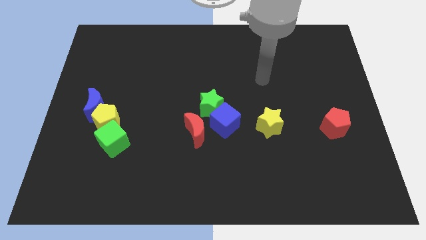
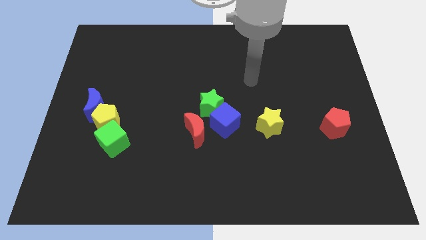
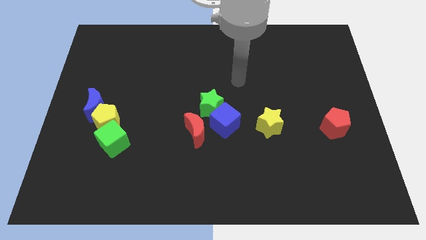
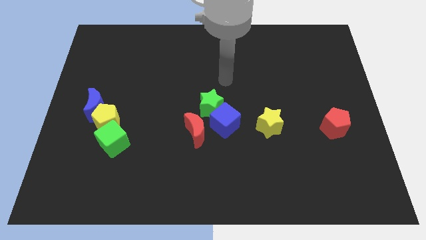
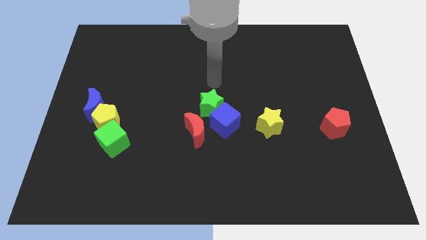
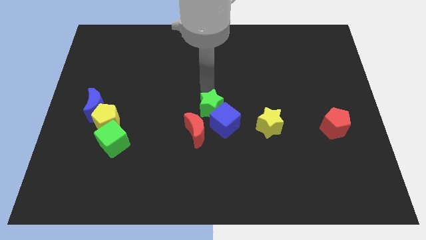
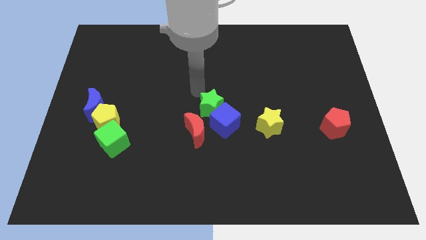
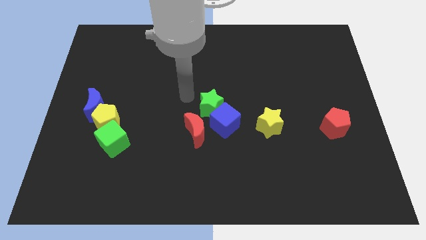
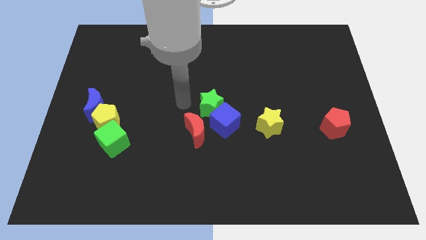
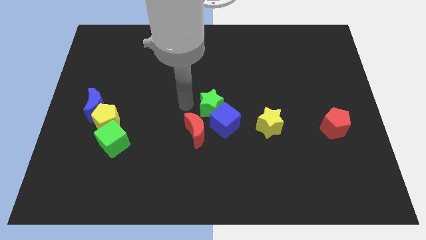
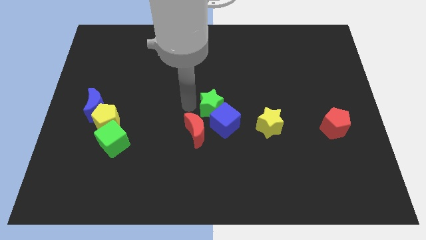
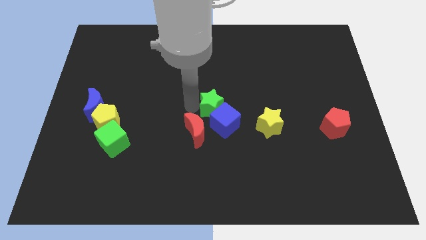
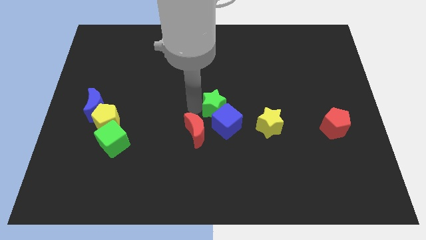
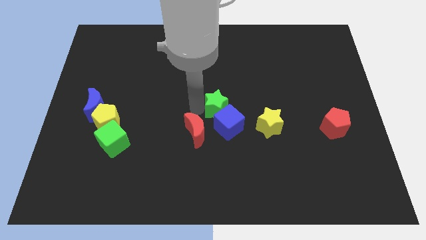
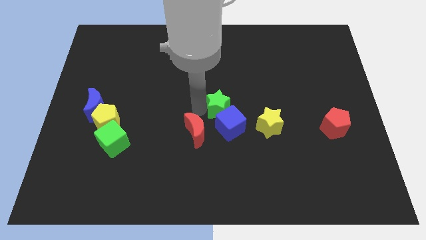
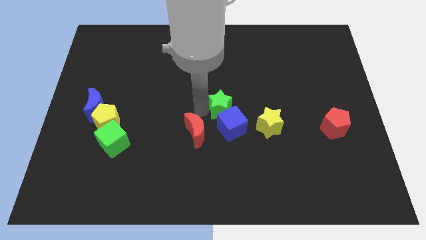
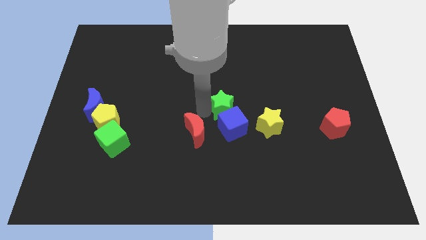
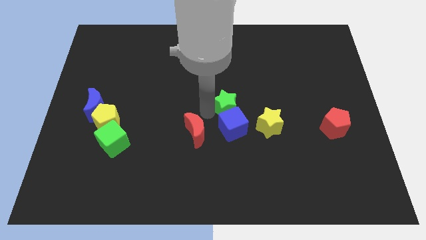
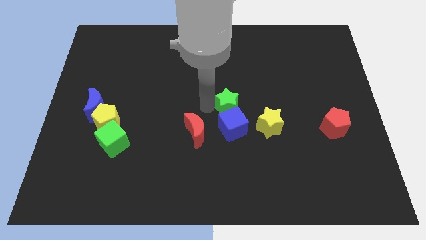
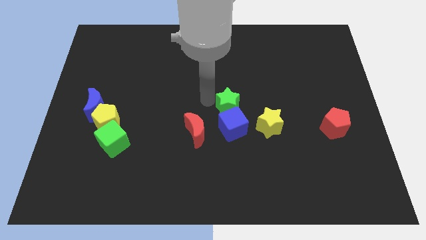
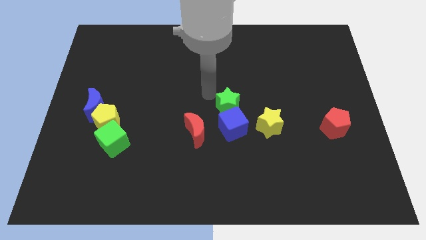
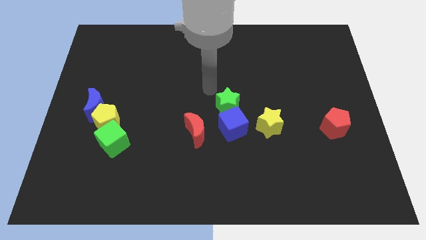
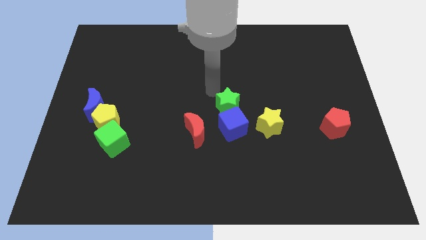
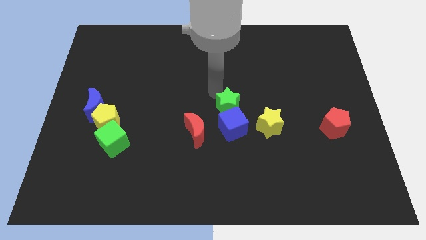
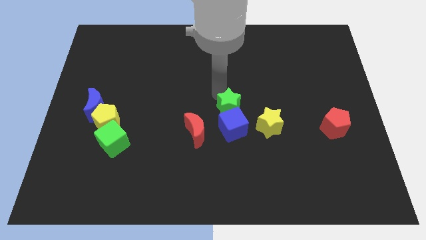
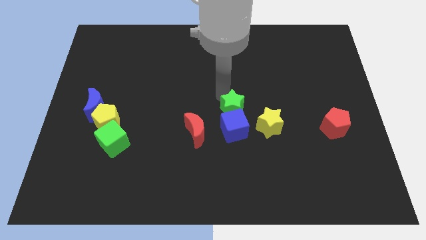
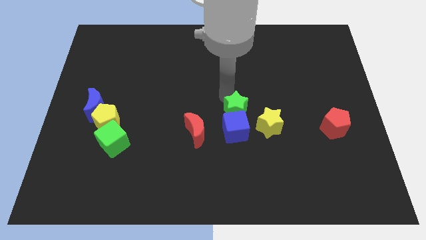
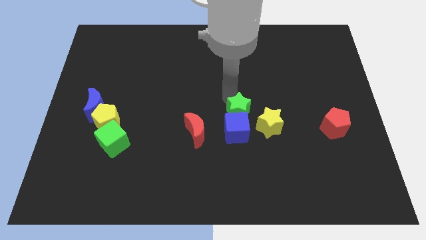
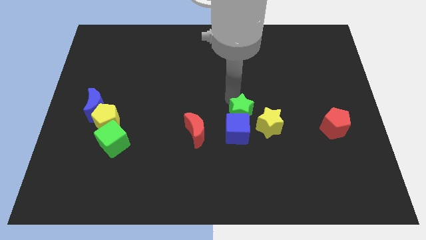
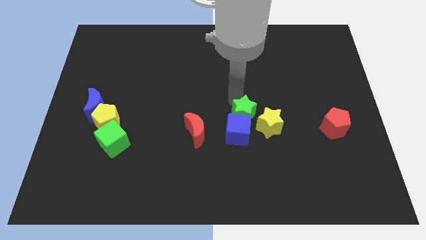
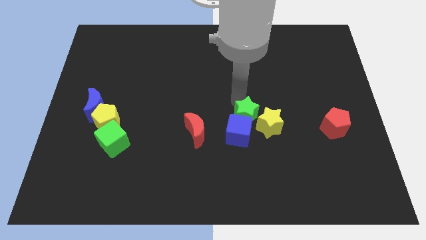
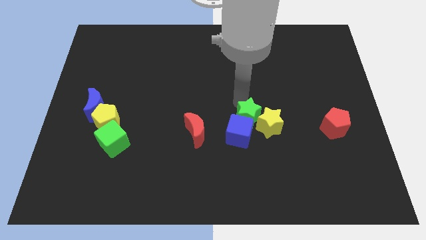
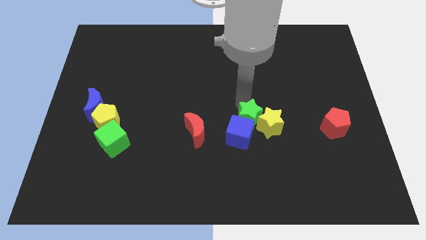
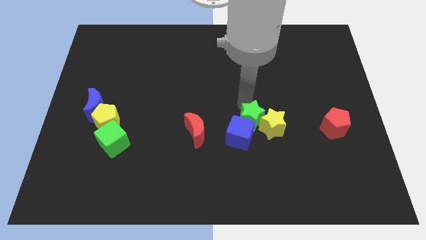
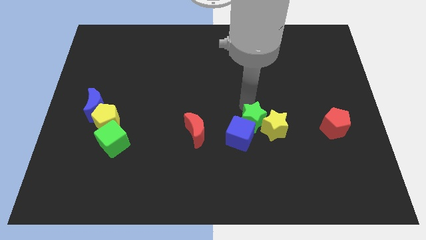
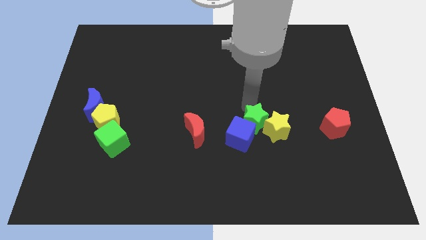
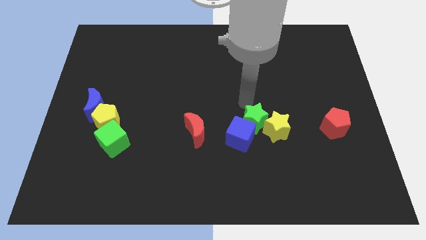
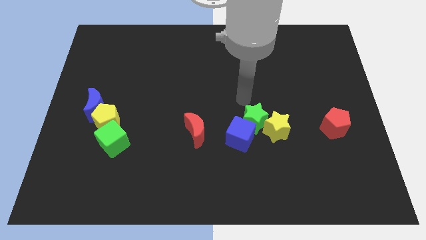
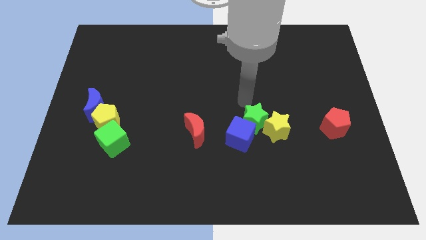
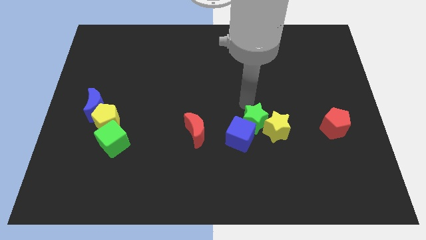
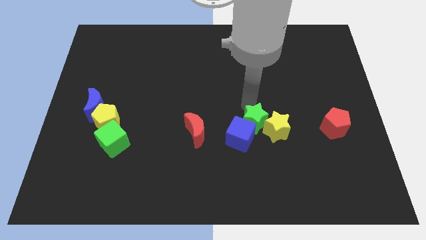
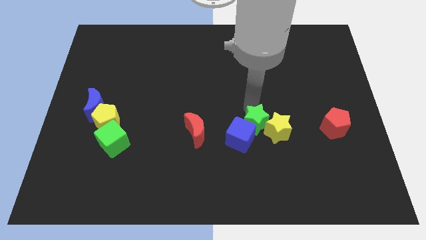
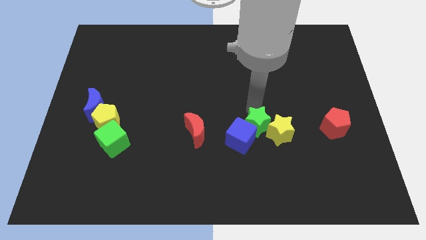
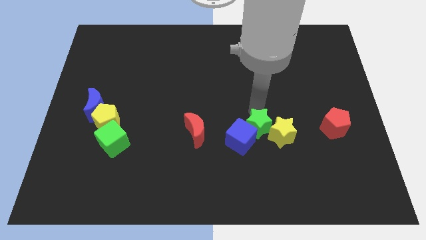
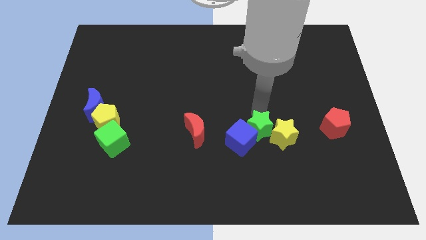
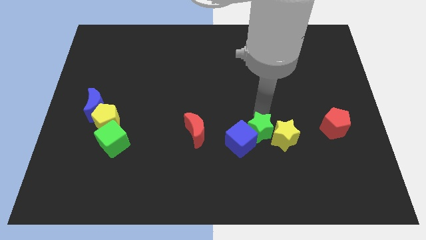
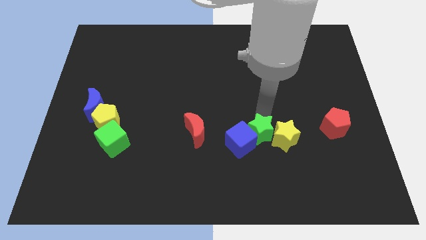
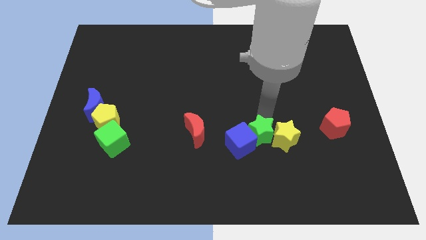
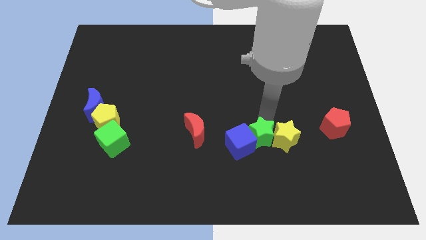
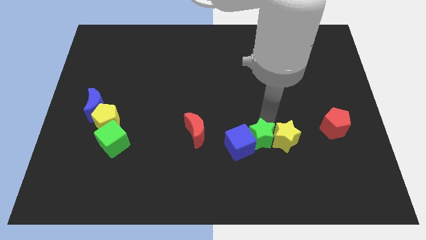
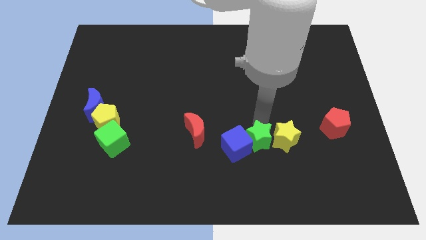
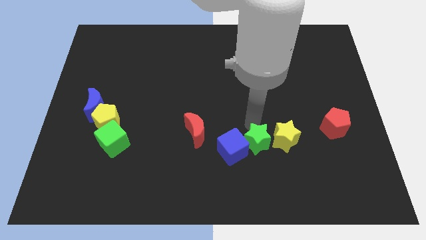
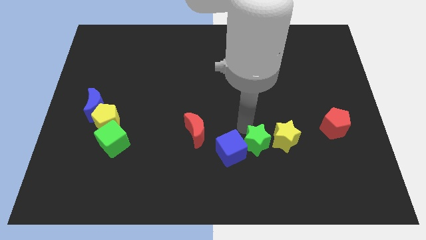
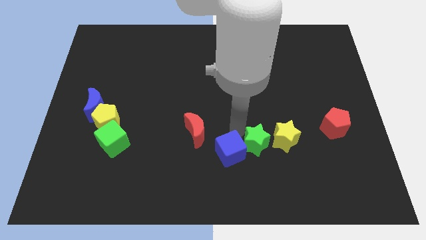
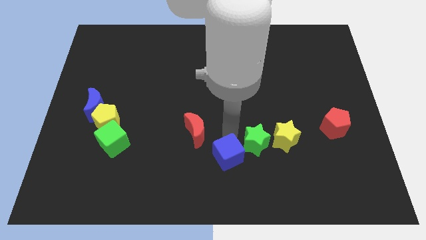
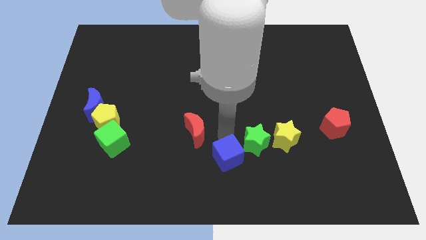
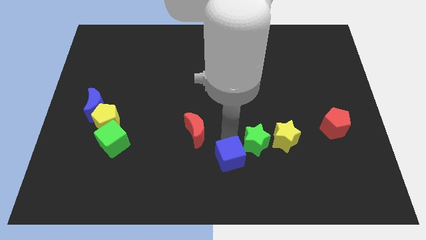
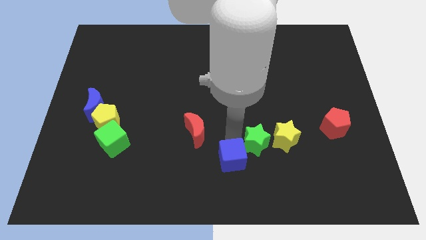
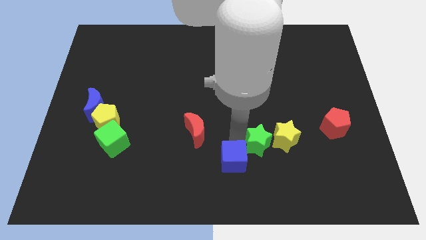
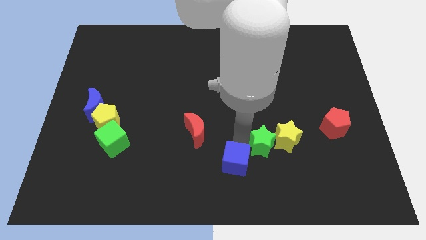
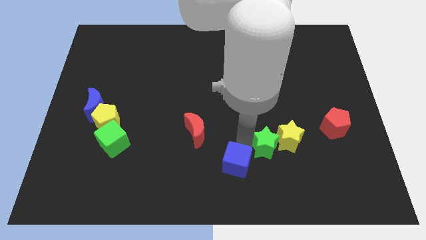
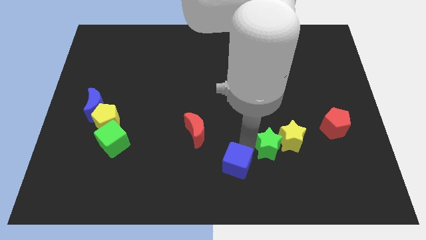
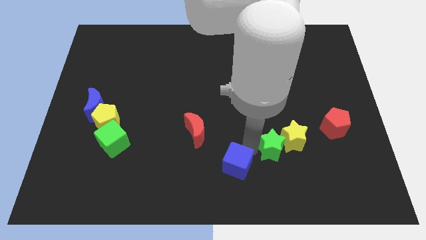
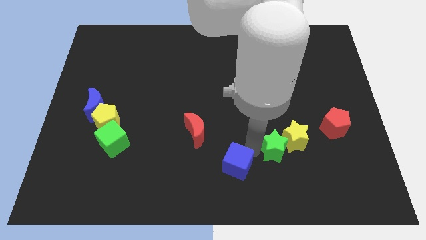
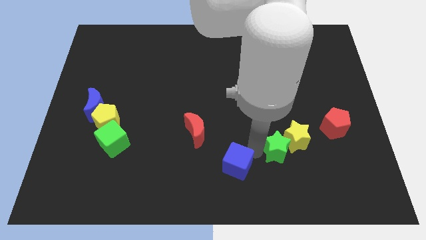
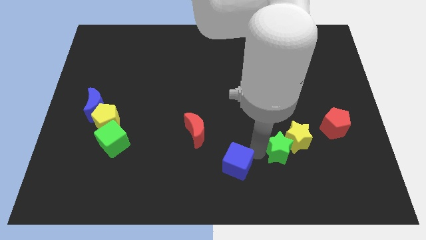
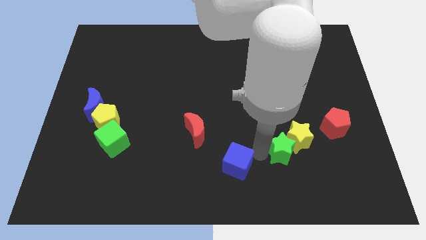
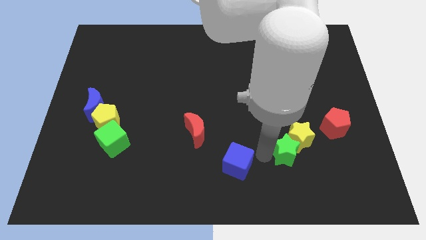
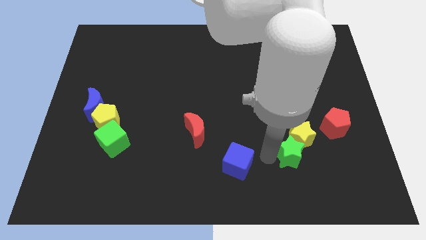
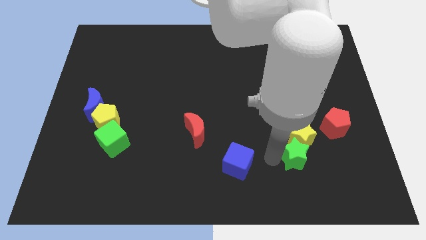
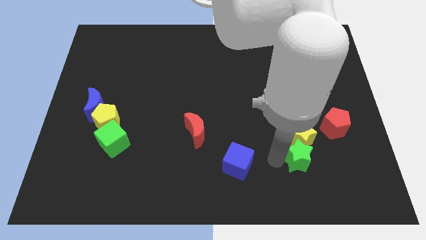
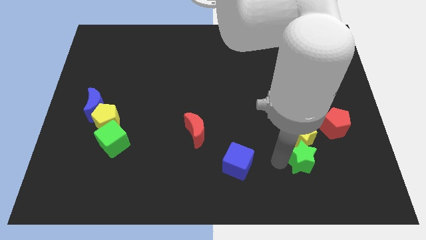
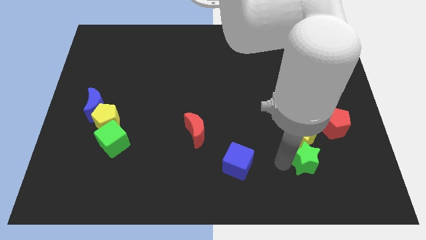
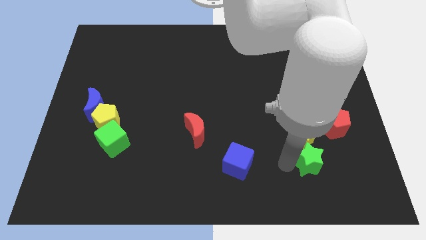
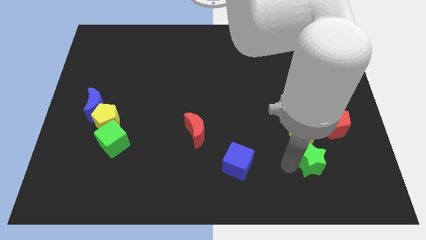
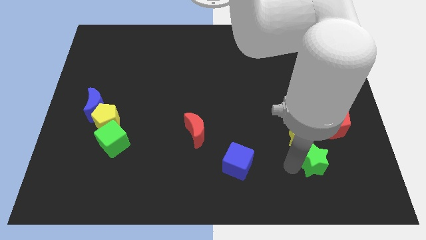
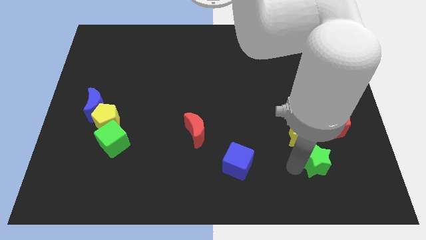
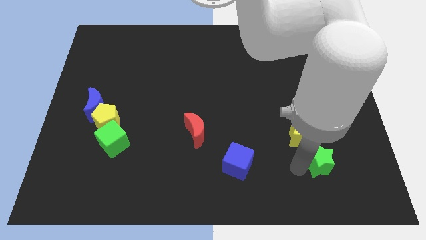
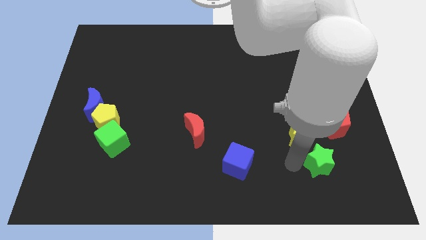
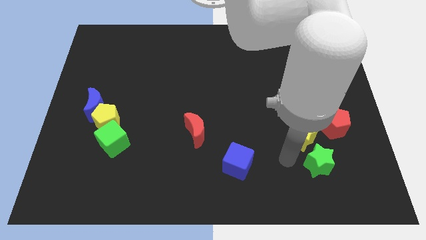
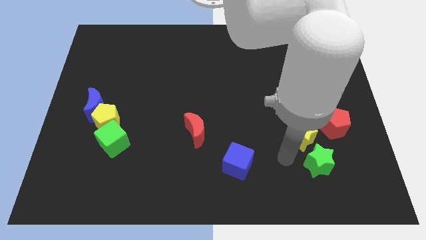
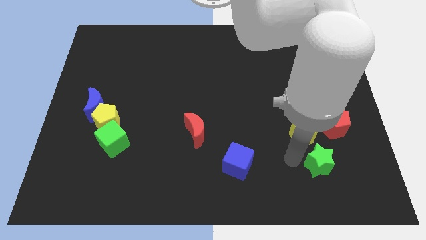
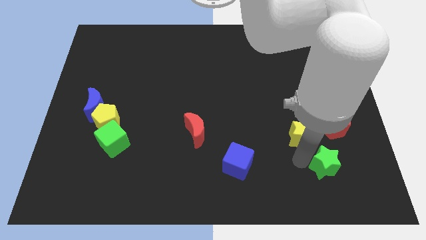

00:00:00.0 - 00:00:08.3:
move the green star to the bottom of the red pentagon
